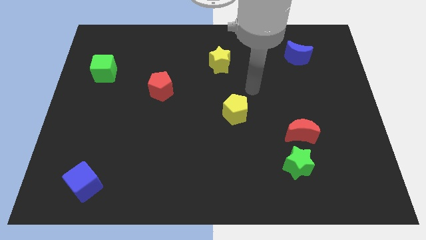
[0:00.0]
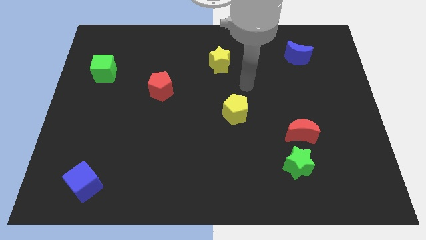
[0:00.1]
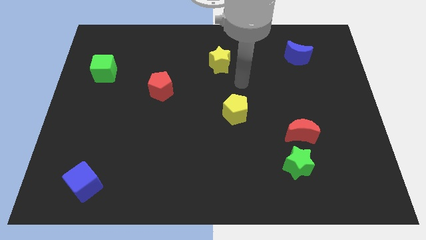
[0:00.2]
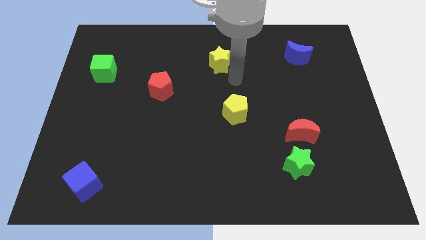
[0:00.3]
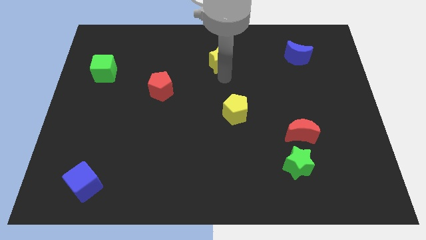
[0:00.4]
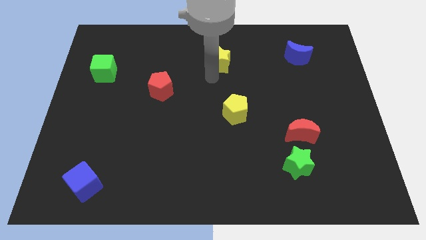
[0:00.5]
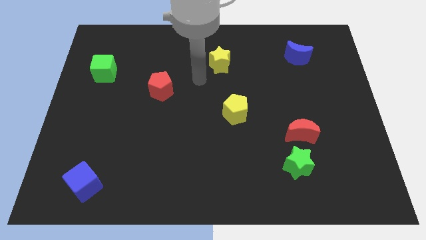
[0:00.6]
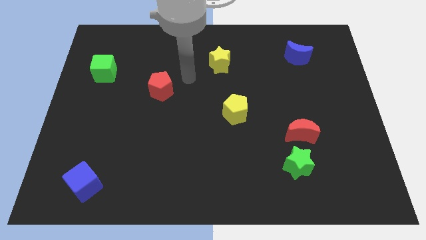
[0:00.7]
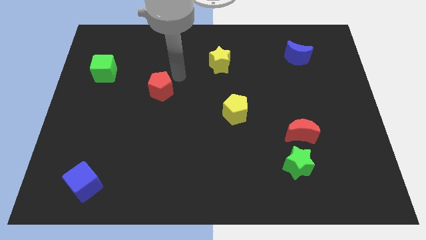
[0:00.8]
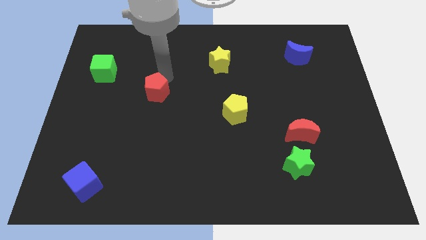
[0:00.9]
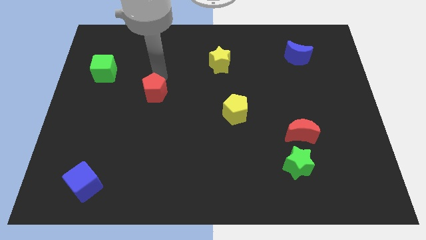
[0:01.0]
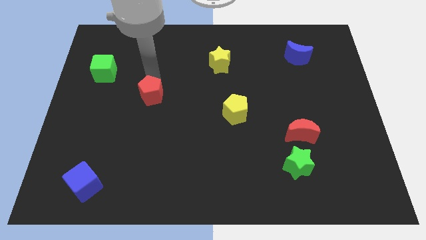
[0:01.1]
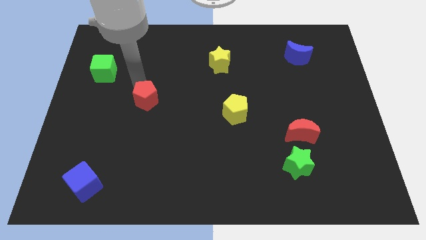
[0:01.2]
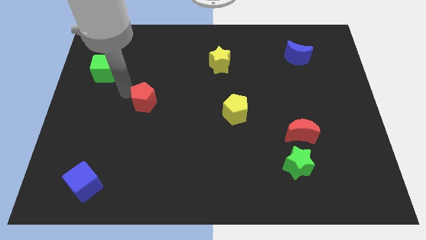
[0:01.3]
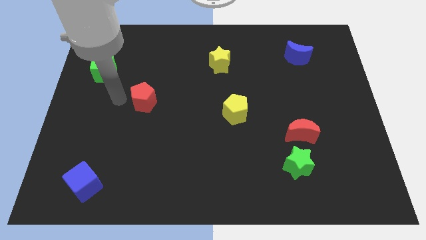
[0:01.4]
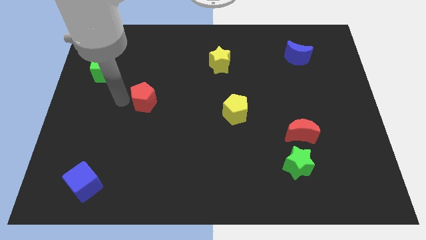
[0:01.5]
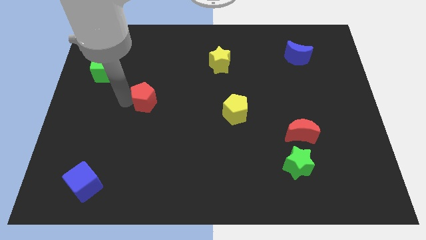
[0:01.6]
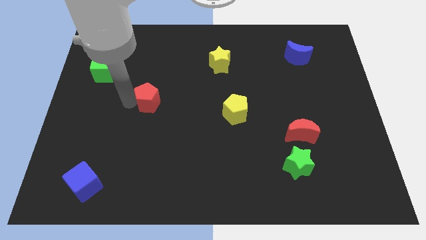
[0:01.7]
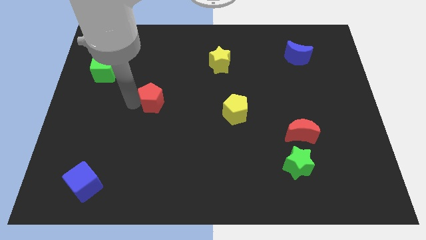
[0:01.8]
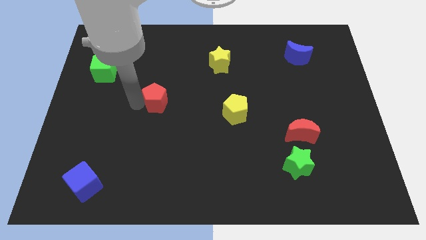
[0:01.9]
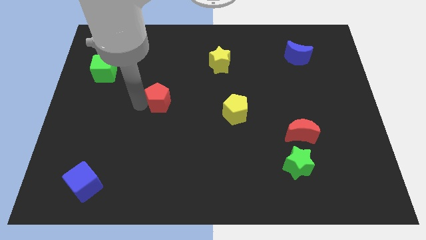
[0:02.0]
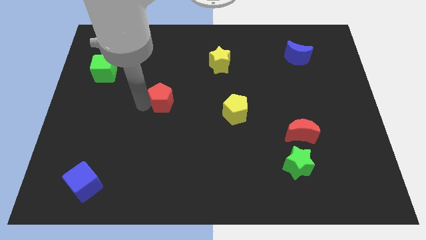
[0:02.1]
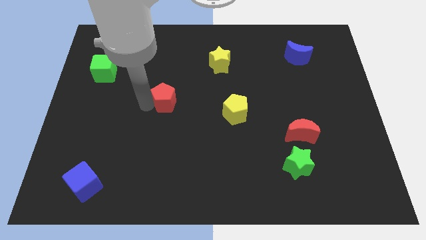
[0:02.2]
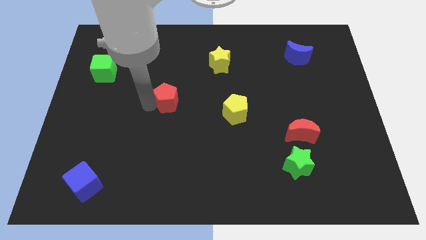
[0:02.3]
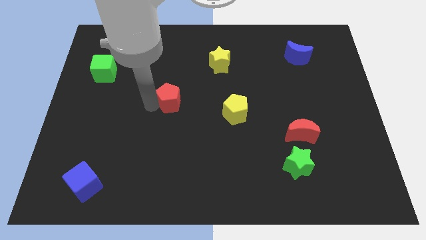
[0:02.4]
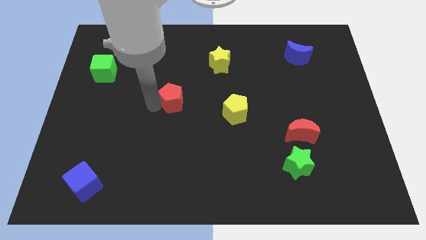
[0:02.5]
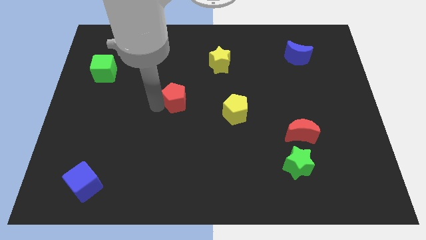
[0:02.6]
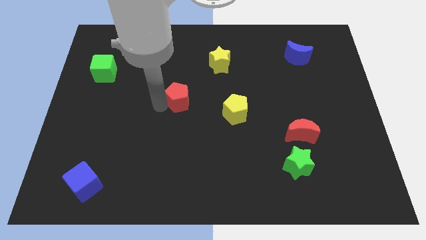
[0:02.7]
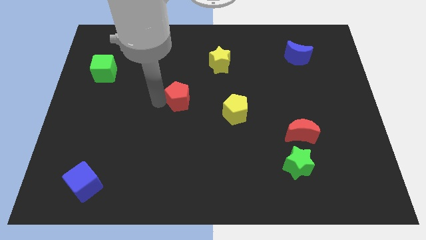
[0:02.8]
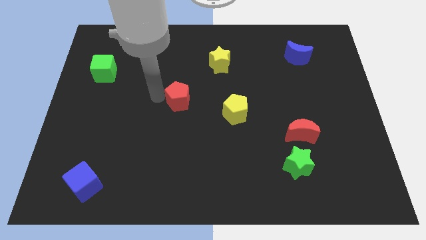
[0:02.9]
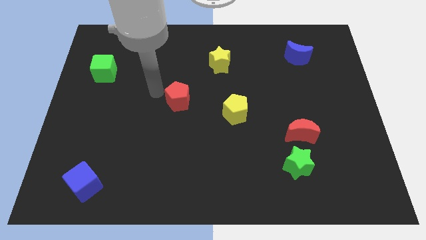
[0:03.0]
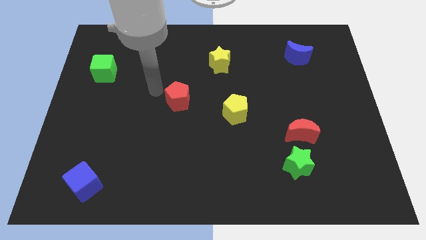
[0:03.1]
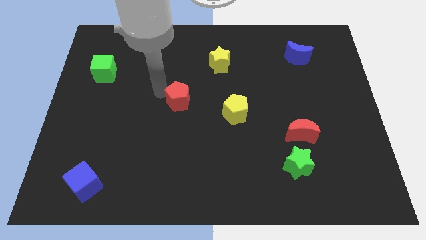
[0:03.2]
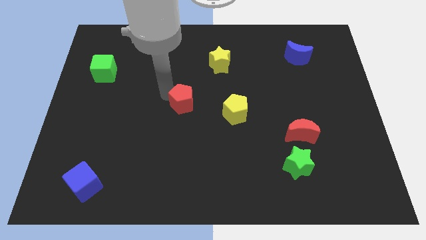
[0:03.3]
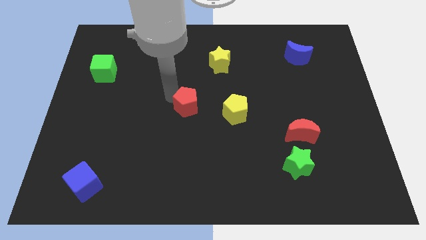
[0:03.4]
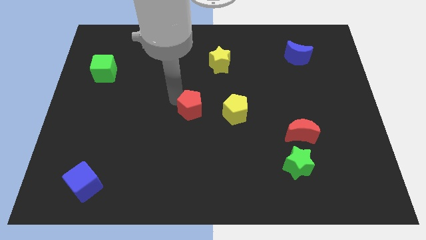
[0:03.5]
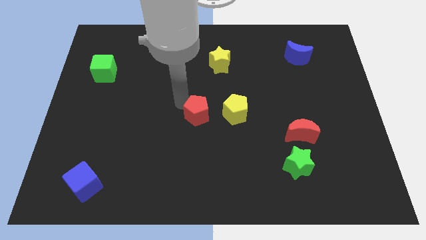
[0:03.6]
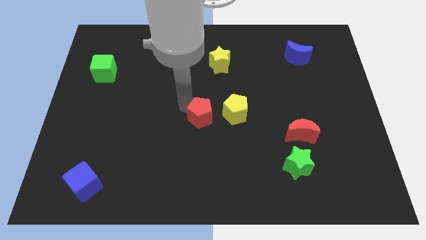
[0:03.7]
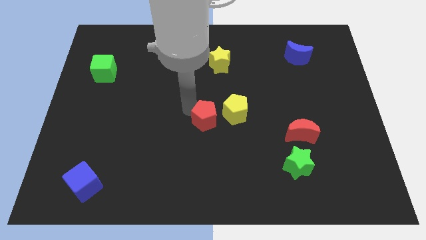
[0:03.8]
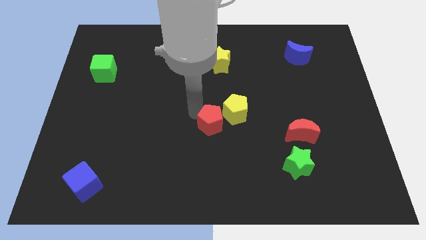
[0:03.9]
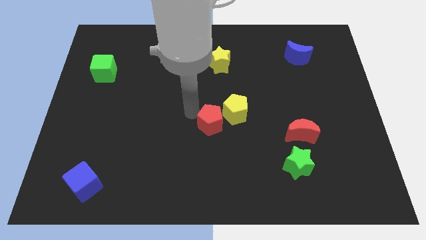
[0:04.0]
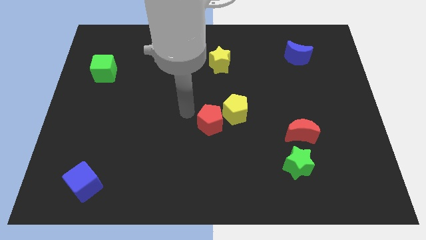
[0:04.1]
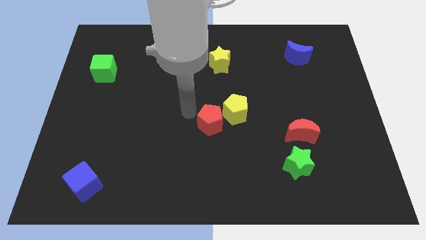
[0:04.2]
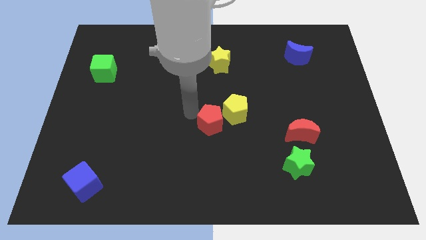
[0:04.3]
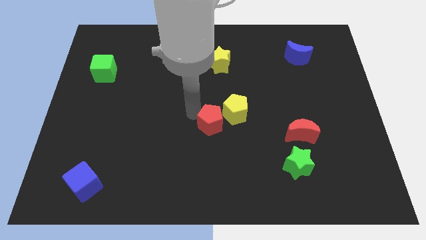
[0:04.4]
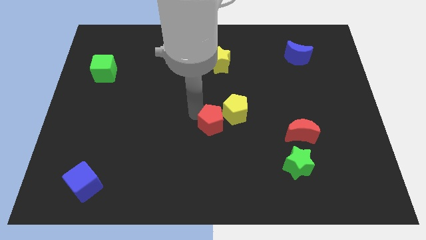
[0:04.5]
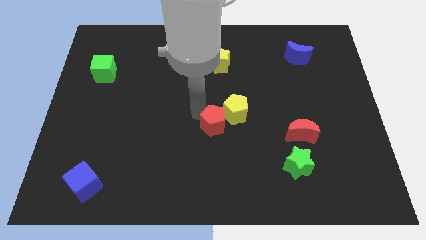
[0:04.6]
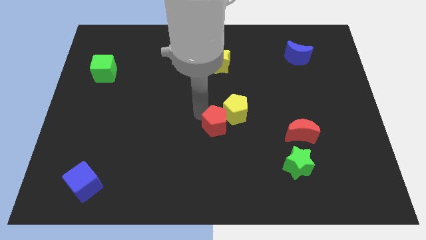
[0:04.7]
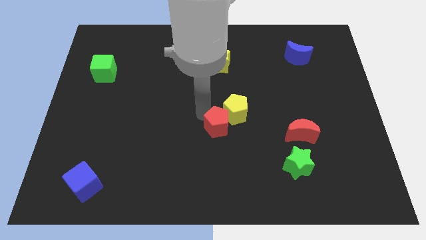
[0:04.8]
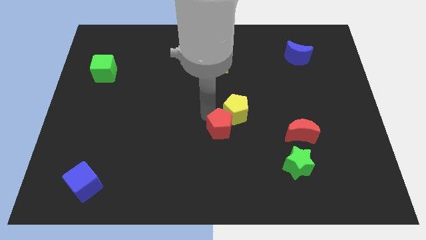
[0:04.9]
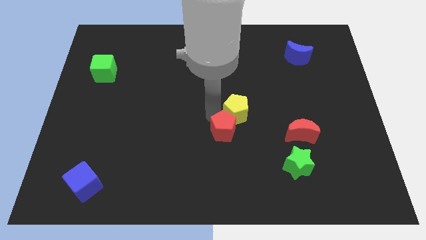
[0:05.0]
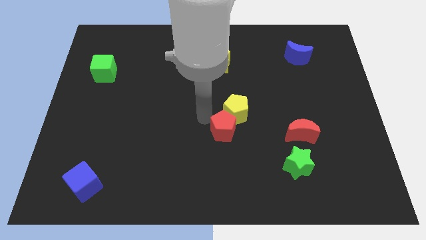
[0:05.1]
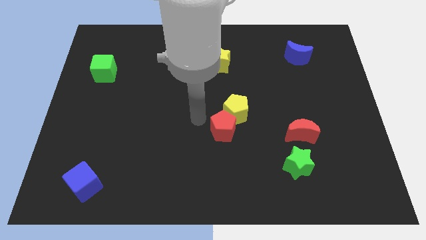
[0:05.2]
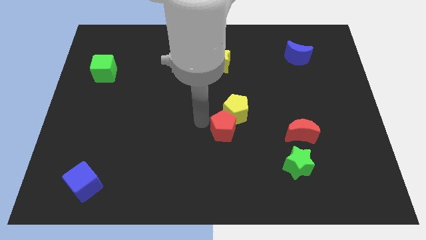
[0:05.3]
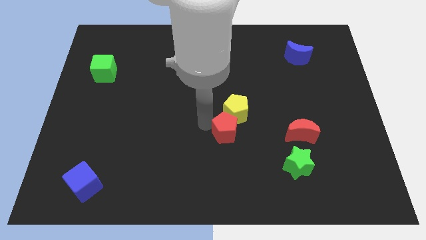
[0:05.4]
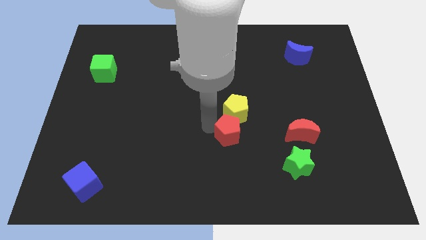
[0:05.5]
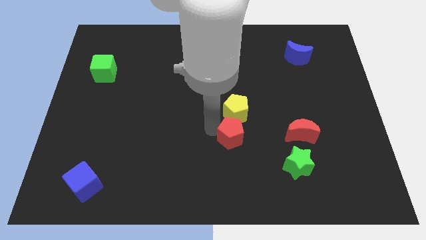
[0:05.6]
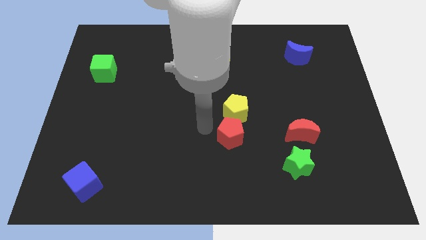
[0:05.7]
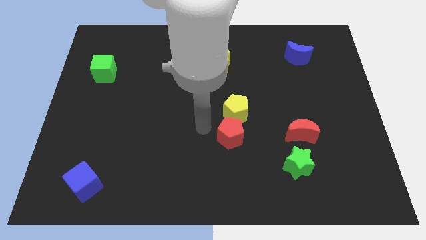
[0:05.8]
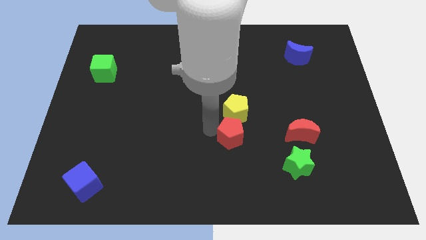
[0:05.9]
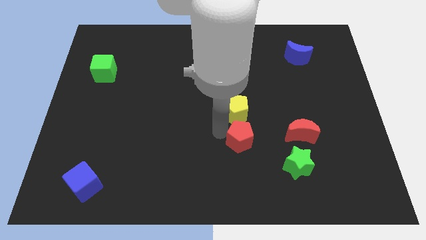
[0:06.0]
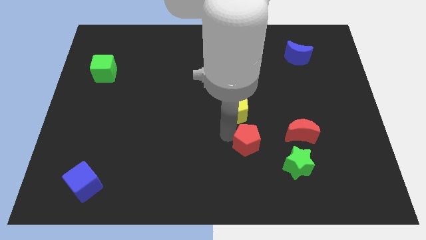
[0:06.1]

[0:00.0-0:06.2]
slide the red pentagon to the top left of the green star

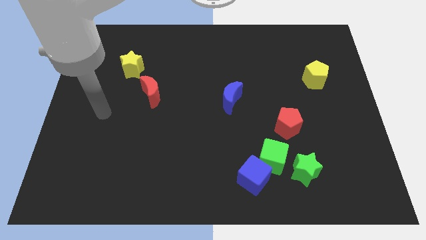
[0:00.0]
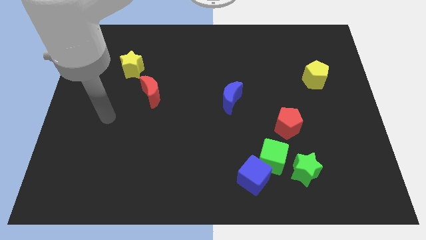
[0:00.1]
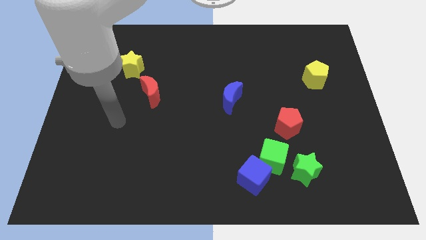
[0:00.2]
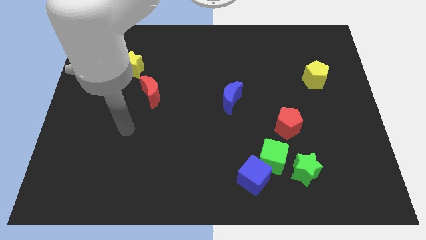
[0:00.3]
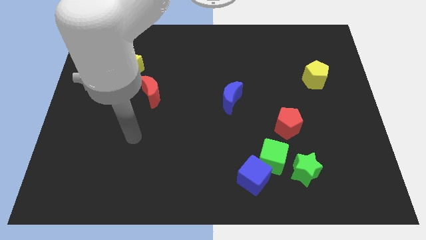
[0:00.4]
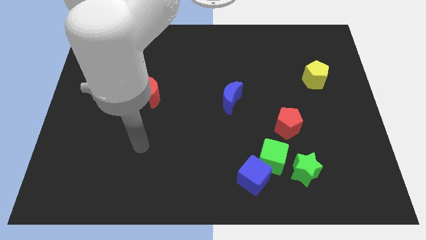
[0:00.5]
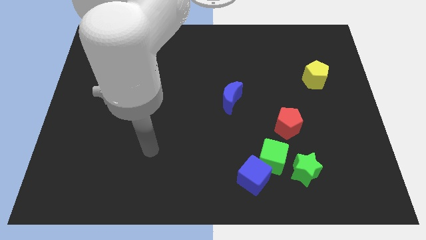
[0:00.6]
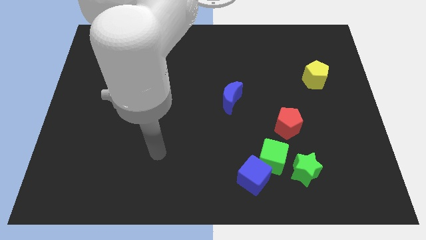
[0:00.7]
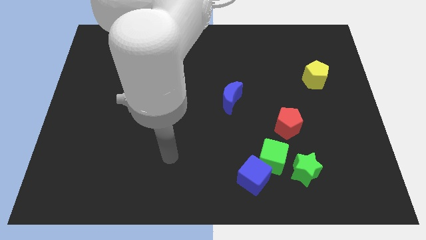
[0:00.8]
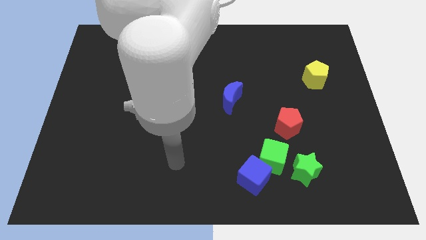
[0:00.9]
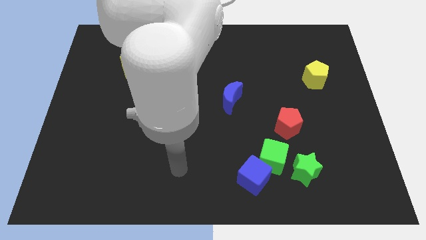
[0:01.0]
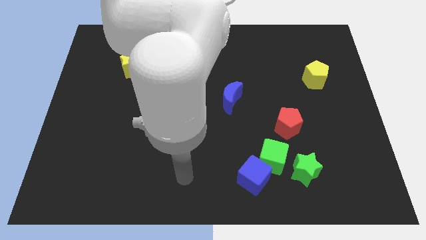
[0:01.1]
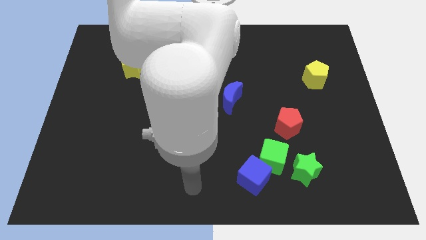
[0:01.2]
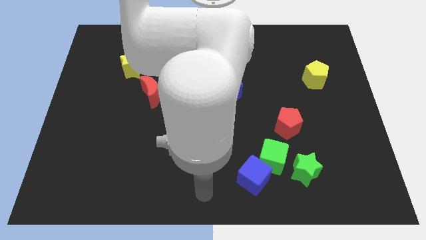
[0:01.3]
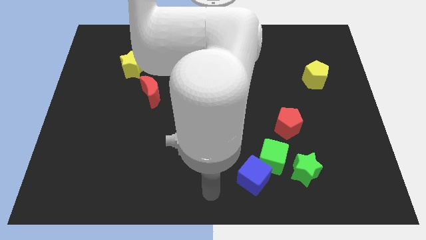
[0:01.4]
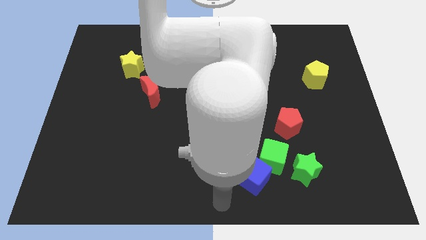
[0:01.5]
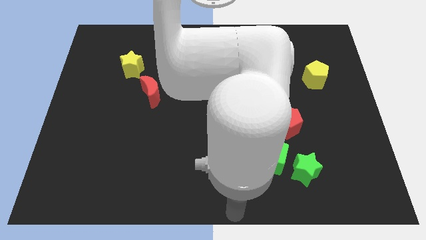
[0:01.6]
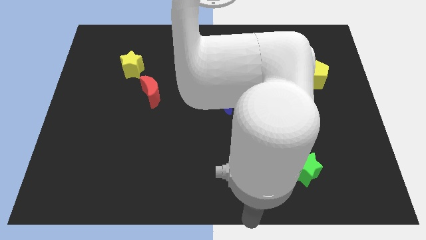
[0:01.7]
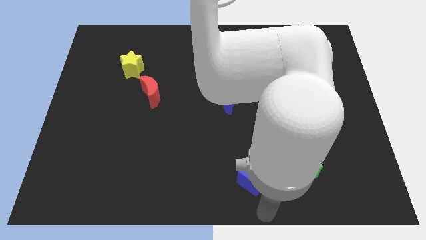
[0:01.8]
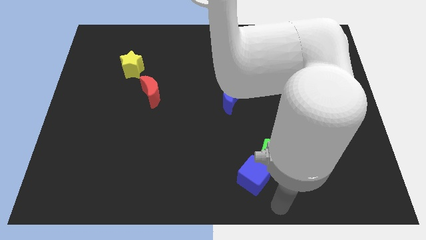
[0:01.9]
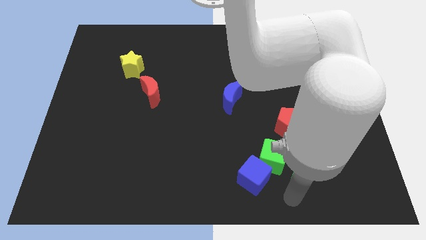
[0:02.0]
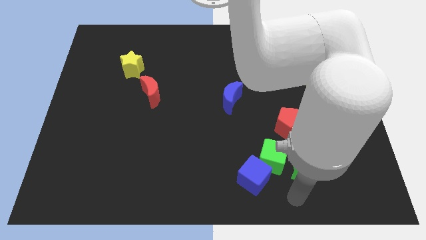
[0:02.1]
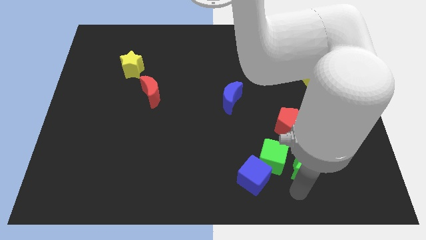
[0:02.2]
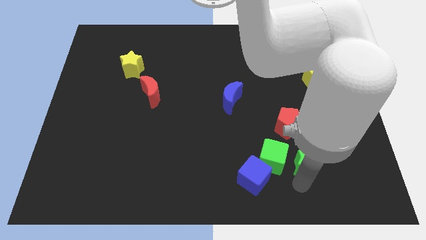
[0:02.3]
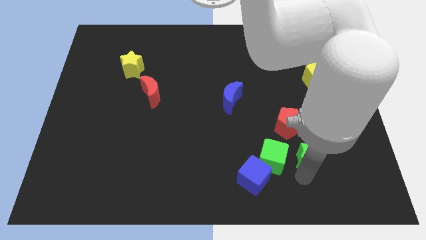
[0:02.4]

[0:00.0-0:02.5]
move the green star diagonally down and to the right of the red pentagon

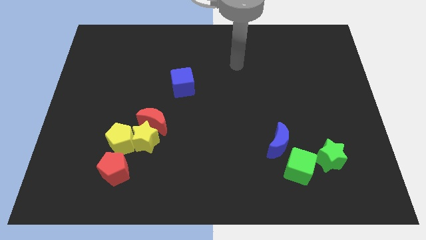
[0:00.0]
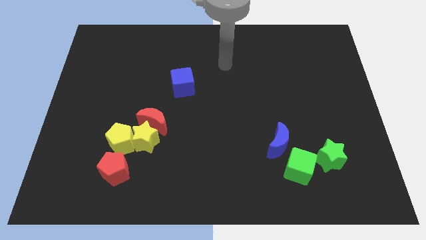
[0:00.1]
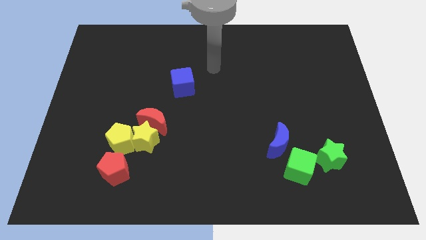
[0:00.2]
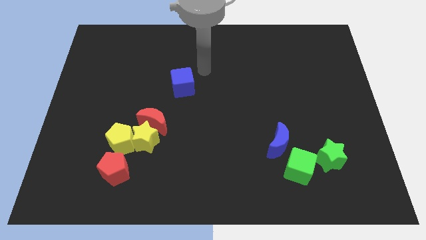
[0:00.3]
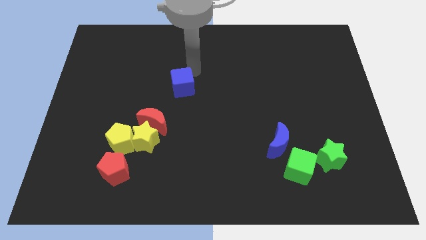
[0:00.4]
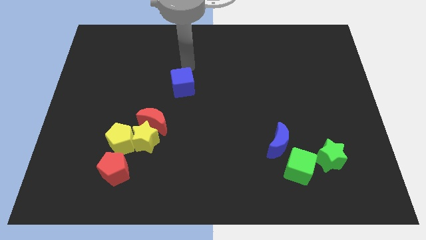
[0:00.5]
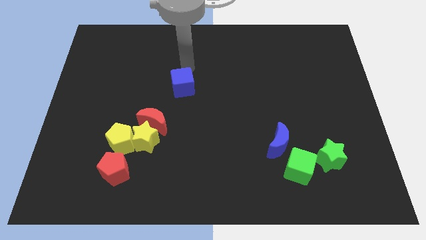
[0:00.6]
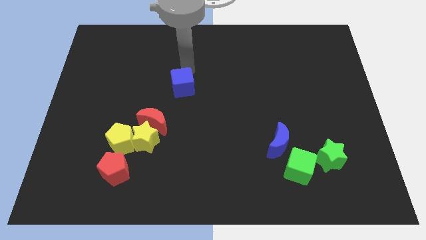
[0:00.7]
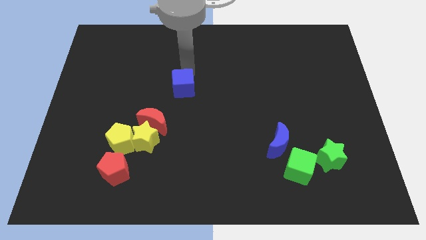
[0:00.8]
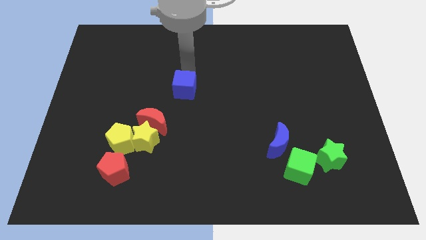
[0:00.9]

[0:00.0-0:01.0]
push the blue cube to the top right side of the red moon
